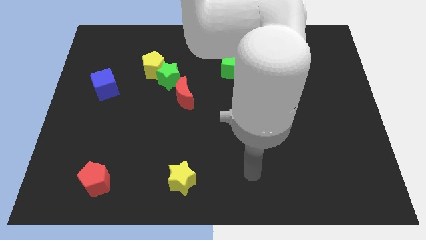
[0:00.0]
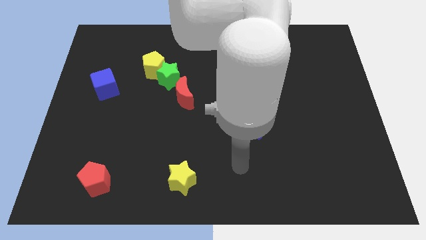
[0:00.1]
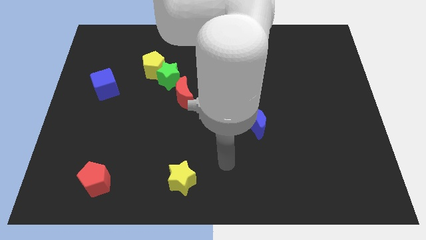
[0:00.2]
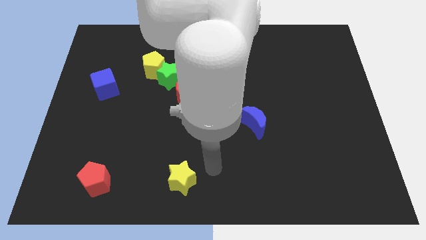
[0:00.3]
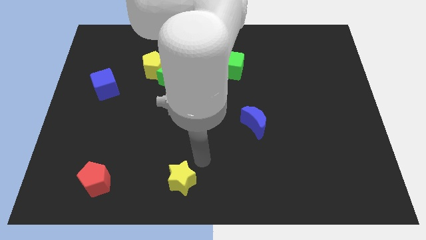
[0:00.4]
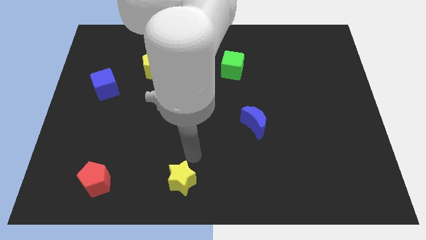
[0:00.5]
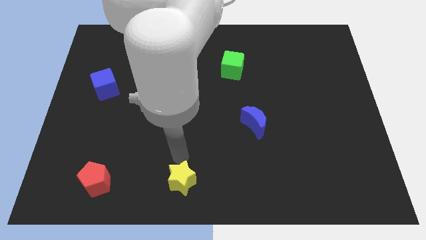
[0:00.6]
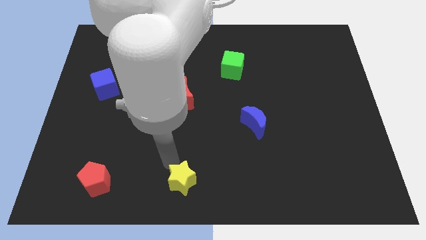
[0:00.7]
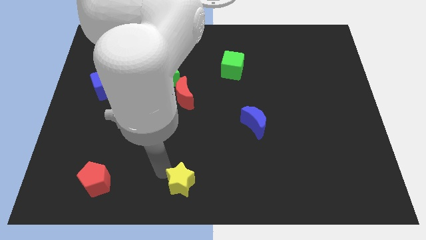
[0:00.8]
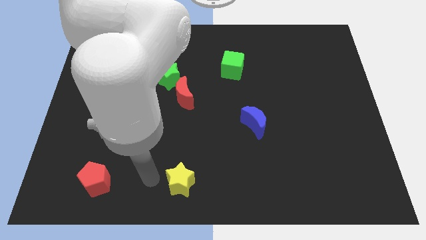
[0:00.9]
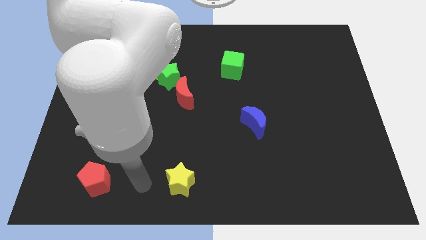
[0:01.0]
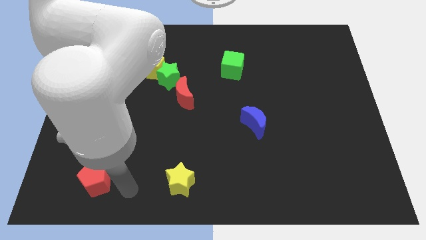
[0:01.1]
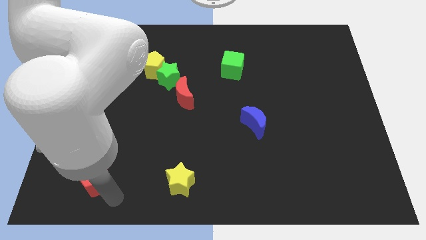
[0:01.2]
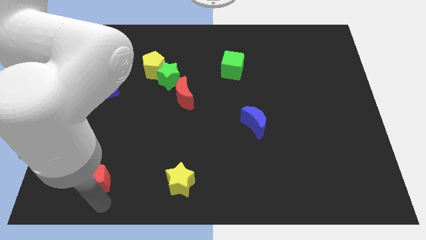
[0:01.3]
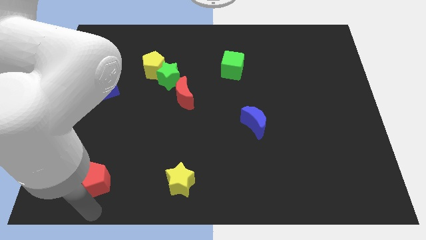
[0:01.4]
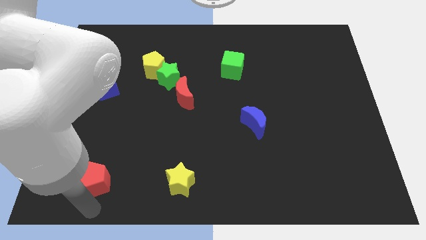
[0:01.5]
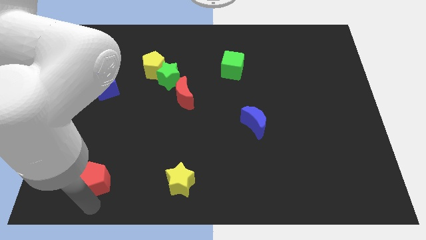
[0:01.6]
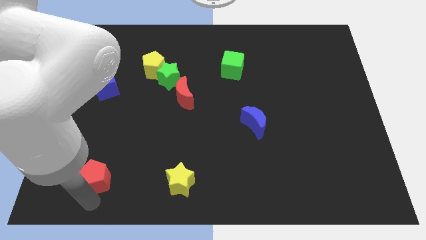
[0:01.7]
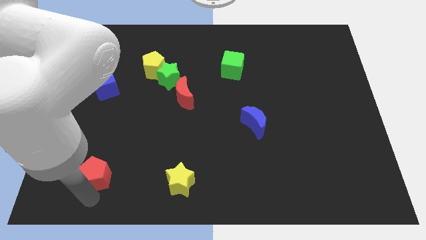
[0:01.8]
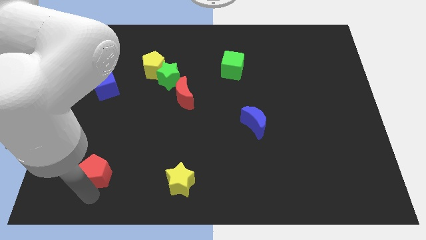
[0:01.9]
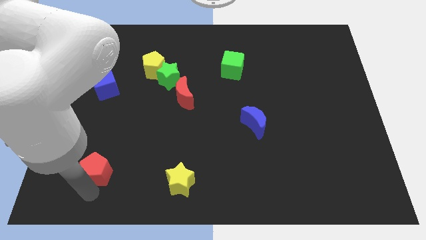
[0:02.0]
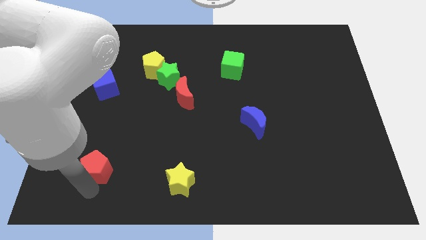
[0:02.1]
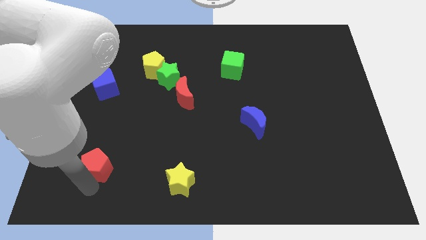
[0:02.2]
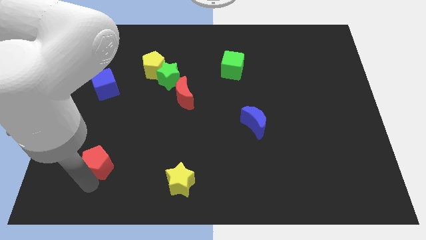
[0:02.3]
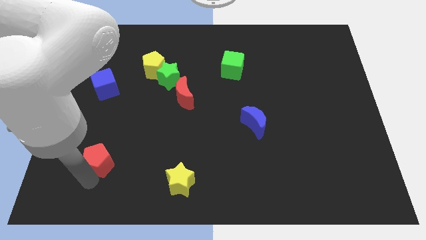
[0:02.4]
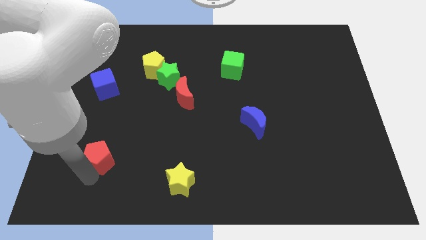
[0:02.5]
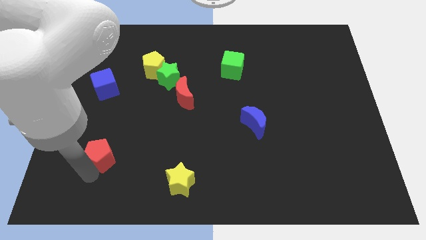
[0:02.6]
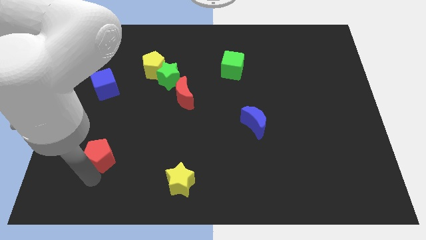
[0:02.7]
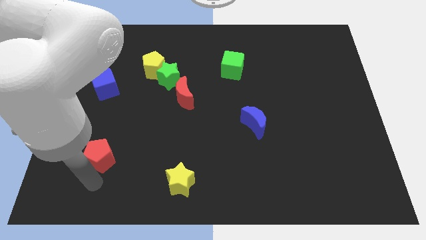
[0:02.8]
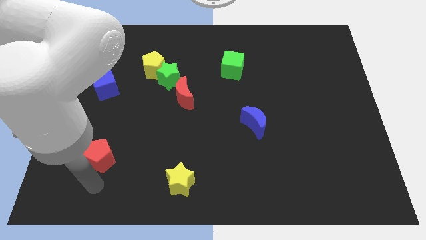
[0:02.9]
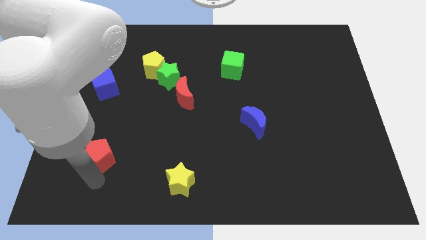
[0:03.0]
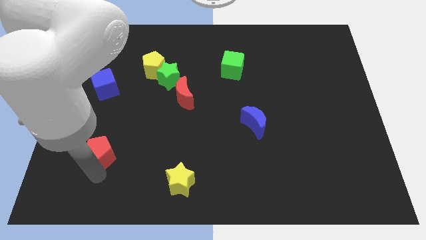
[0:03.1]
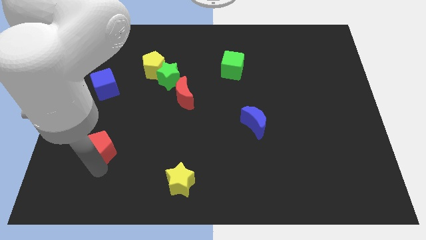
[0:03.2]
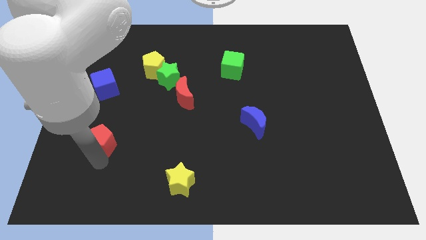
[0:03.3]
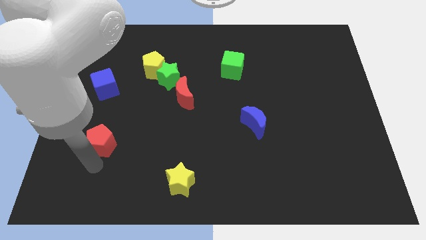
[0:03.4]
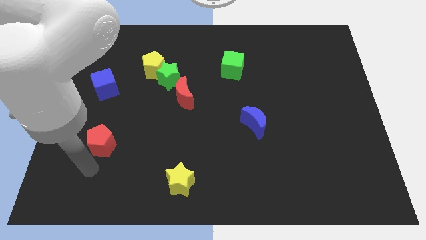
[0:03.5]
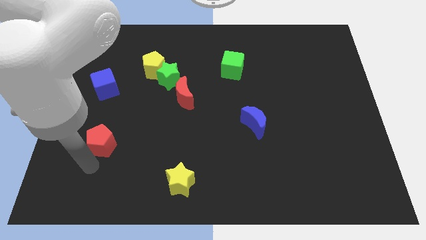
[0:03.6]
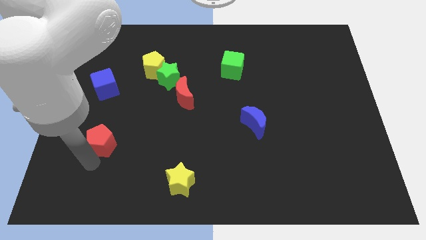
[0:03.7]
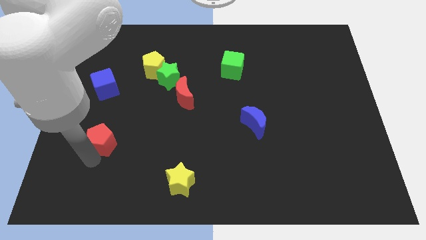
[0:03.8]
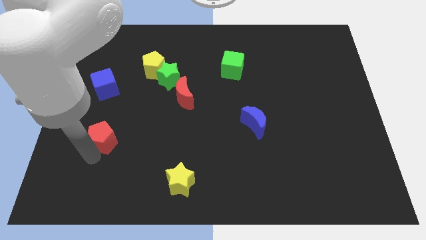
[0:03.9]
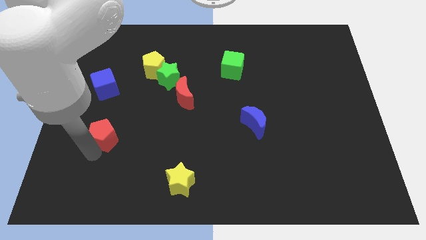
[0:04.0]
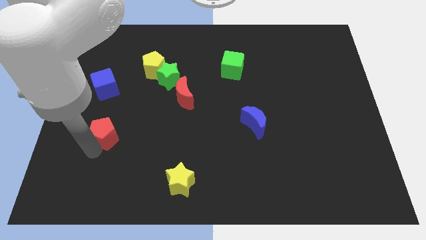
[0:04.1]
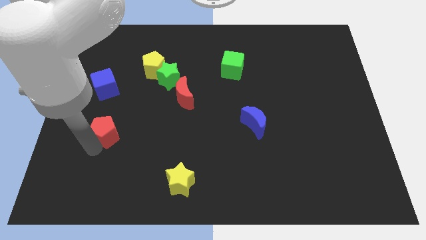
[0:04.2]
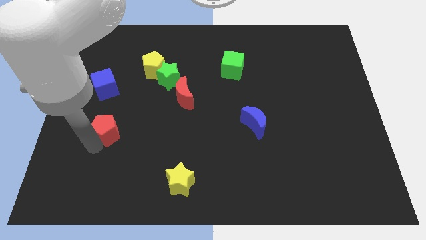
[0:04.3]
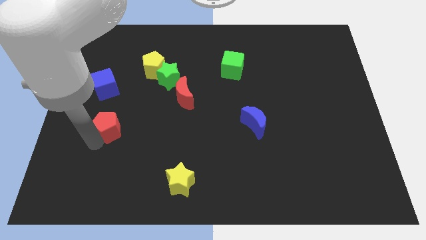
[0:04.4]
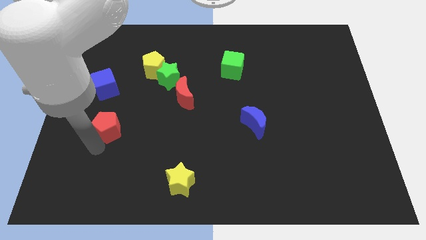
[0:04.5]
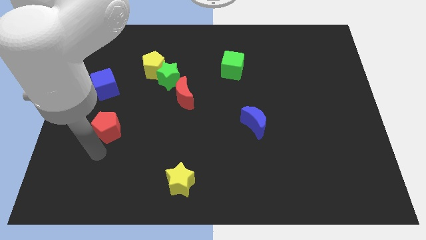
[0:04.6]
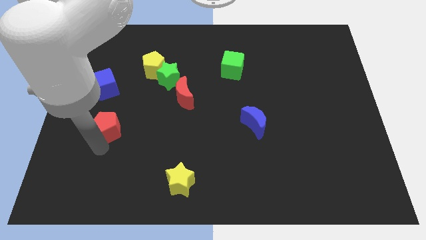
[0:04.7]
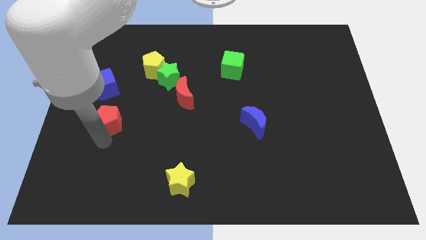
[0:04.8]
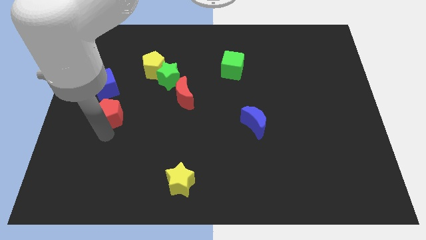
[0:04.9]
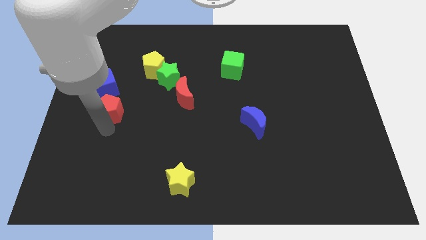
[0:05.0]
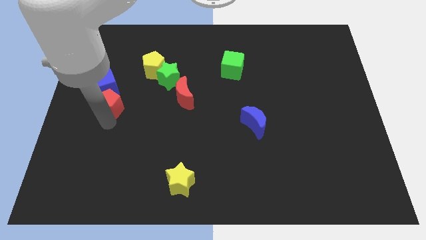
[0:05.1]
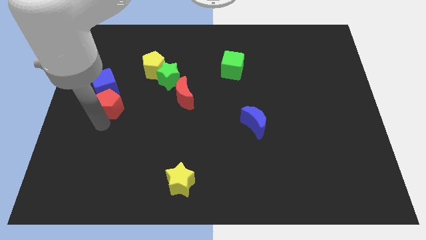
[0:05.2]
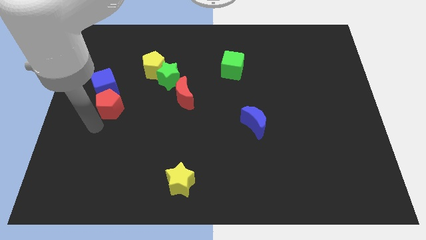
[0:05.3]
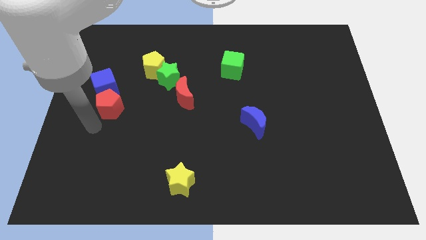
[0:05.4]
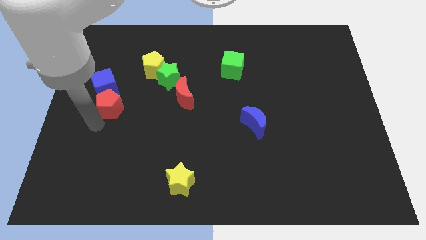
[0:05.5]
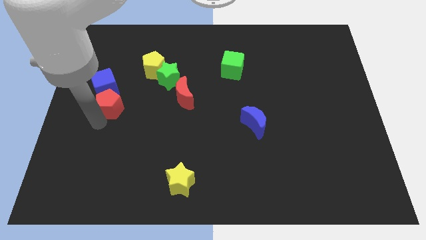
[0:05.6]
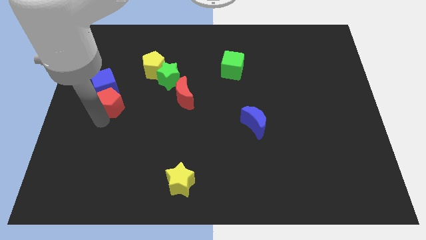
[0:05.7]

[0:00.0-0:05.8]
move the red pentagon up

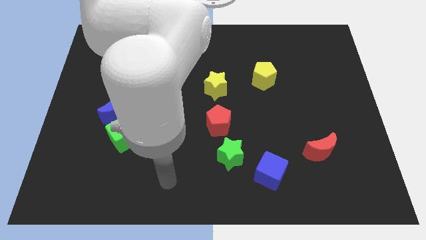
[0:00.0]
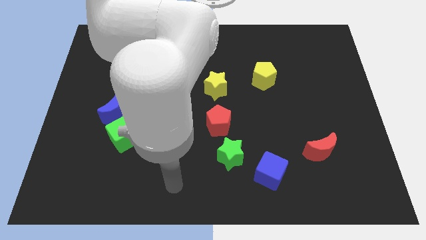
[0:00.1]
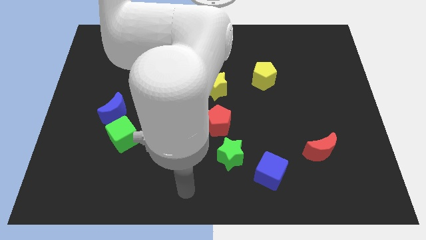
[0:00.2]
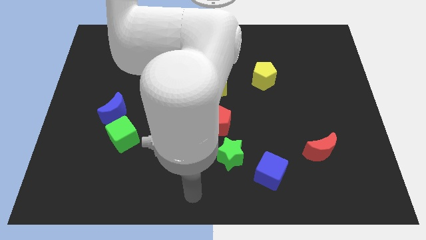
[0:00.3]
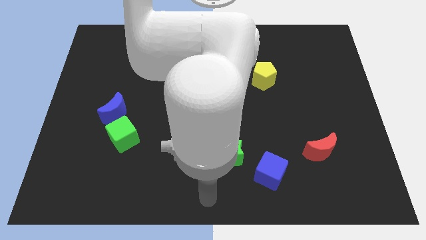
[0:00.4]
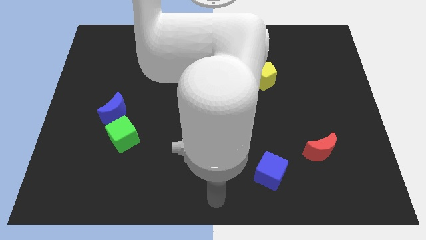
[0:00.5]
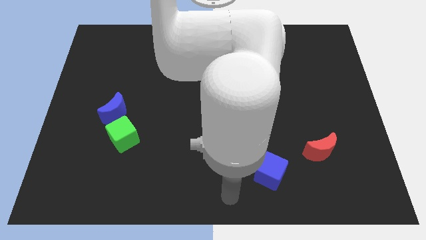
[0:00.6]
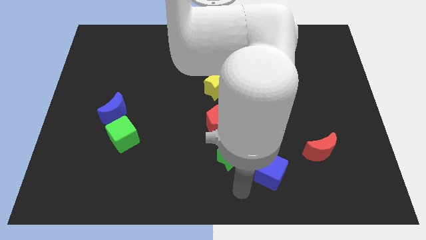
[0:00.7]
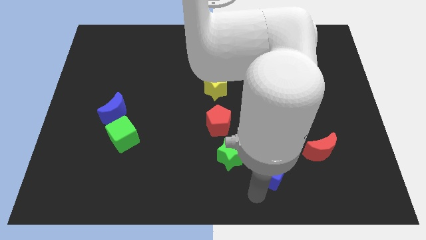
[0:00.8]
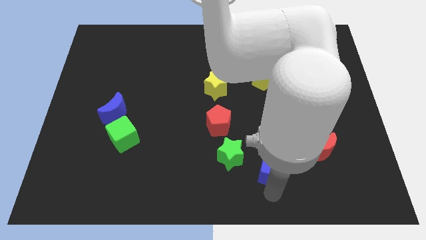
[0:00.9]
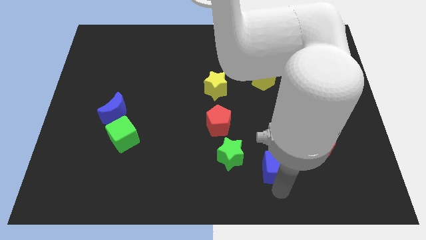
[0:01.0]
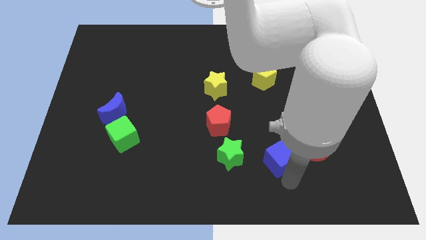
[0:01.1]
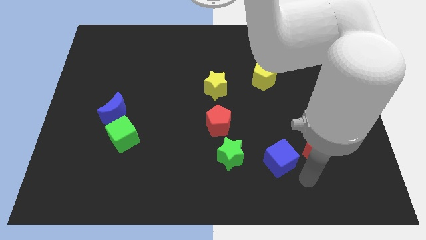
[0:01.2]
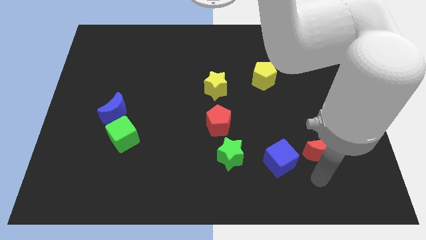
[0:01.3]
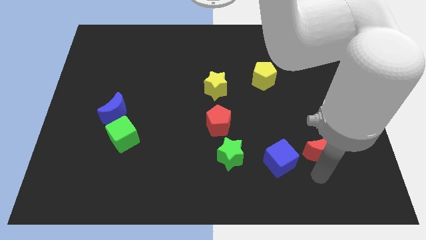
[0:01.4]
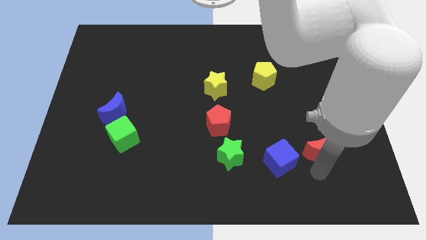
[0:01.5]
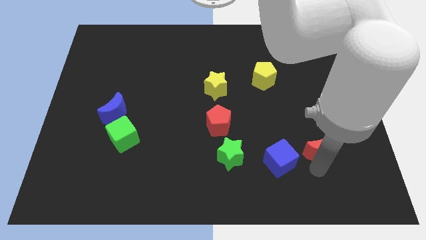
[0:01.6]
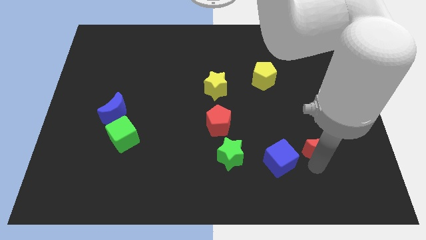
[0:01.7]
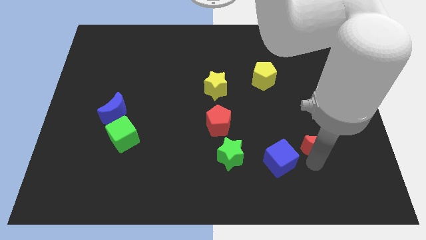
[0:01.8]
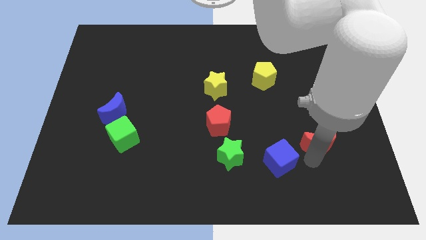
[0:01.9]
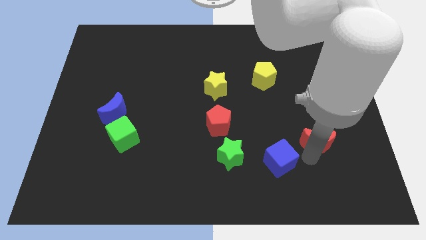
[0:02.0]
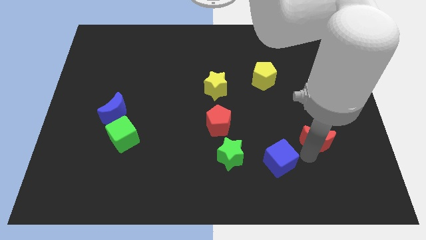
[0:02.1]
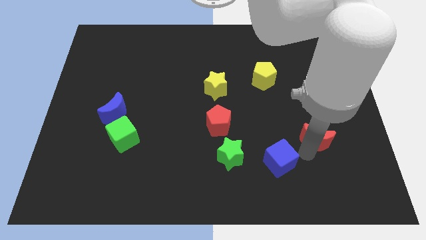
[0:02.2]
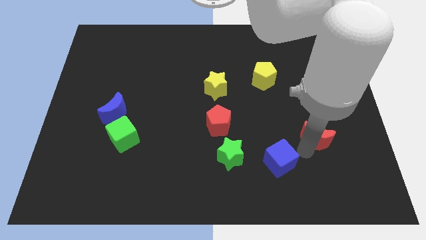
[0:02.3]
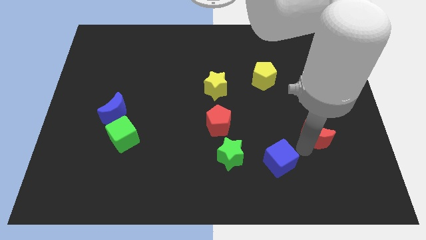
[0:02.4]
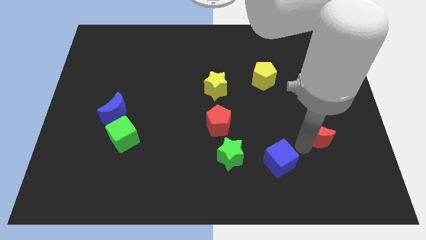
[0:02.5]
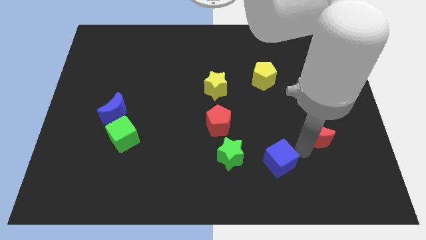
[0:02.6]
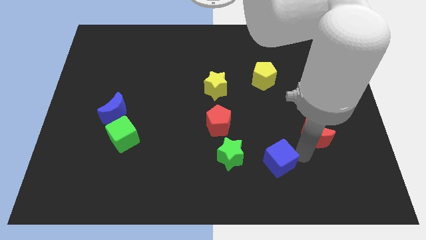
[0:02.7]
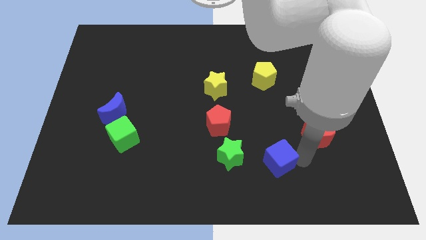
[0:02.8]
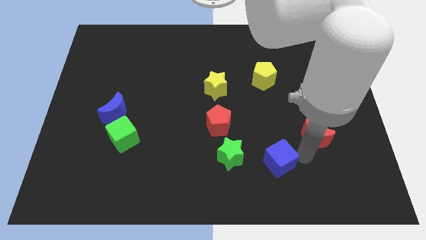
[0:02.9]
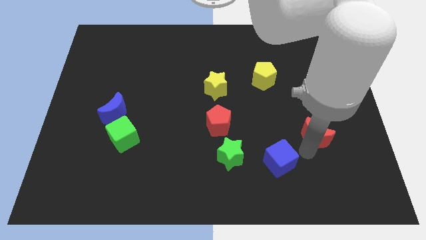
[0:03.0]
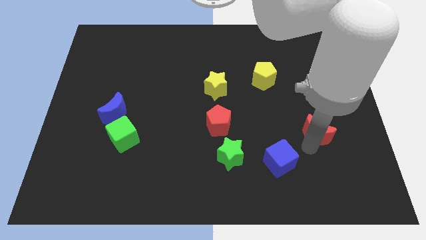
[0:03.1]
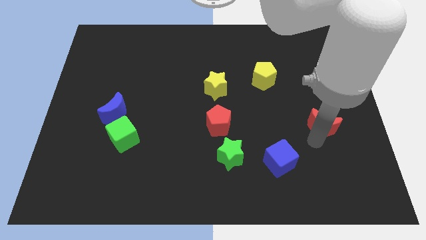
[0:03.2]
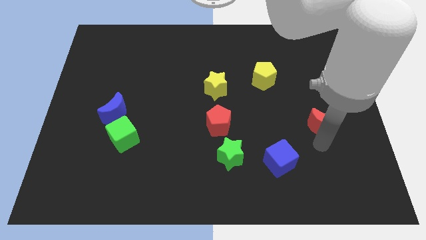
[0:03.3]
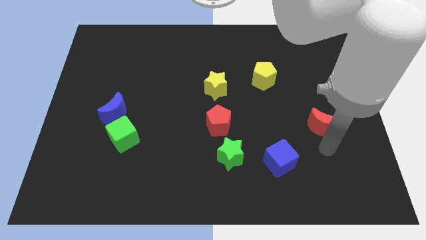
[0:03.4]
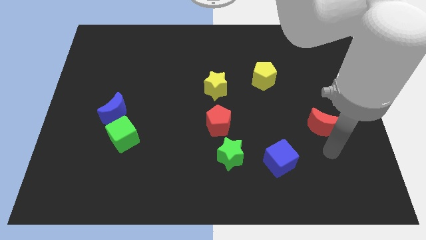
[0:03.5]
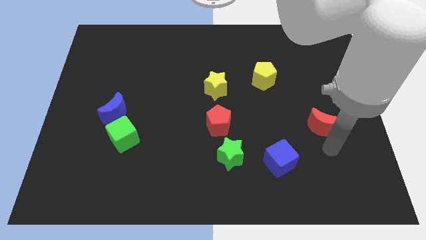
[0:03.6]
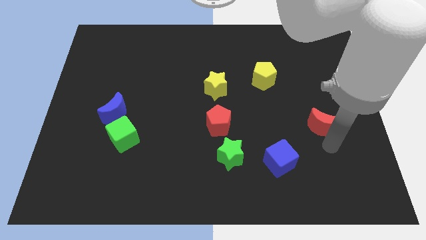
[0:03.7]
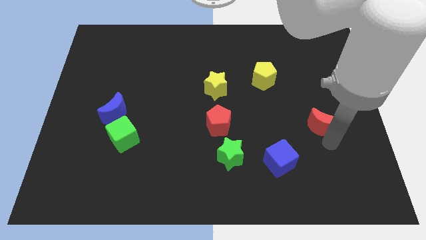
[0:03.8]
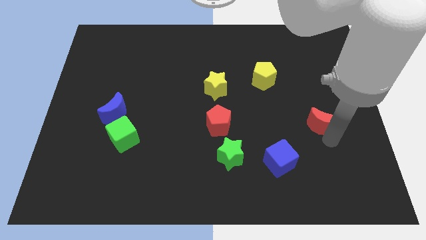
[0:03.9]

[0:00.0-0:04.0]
slide the red moon slightly up
